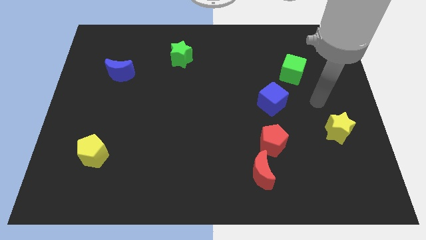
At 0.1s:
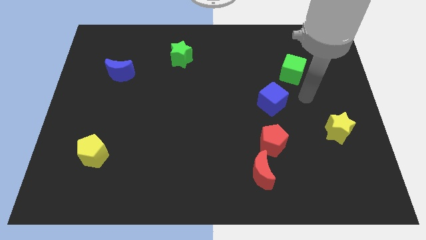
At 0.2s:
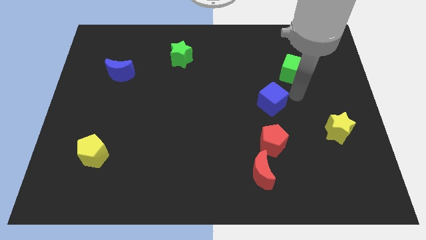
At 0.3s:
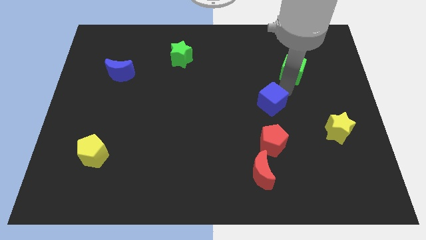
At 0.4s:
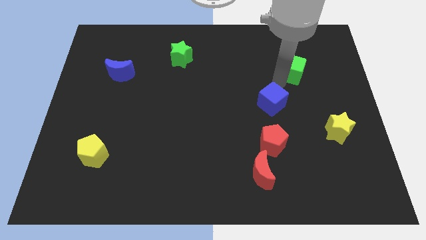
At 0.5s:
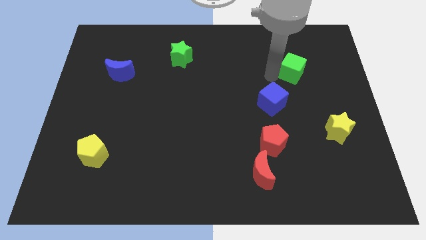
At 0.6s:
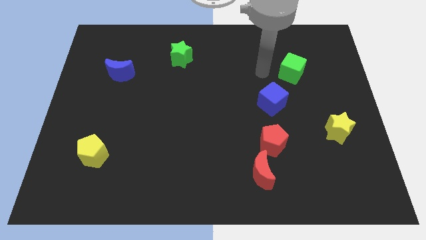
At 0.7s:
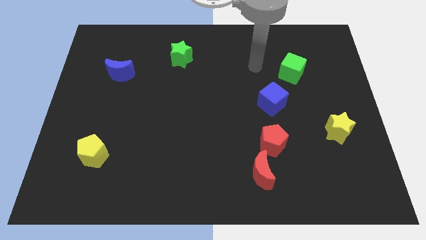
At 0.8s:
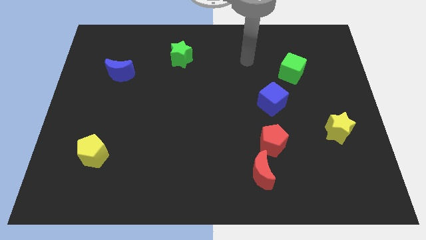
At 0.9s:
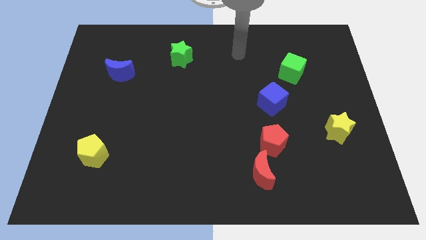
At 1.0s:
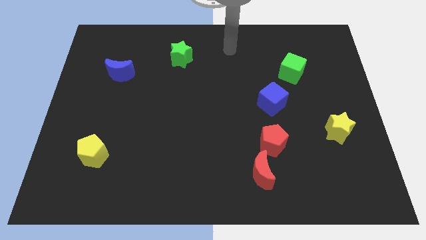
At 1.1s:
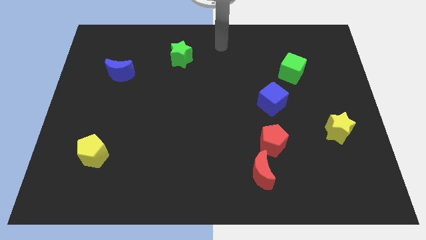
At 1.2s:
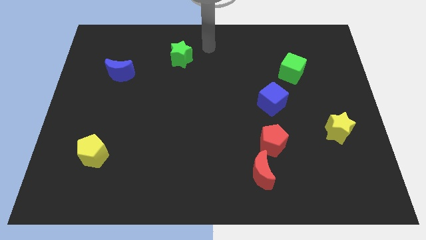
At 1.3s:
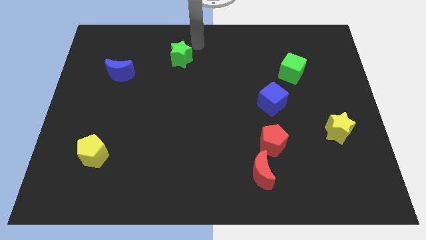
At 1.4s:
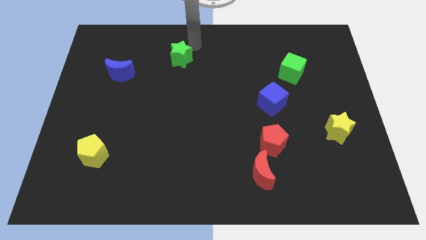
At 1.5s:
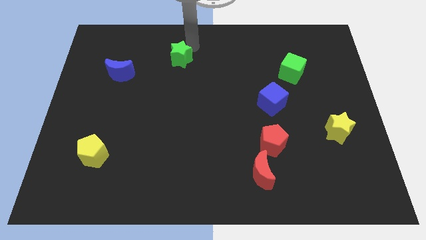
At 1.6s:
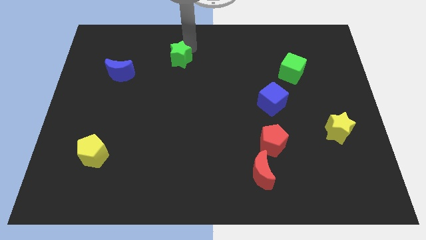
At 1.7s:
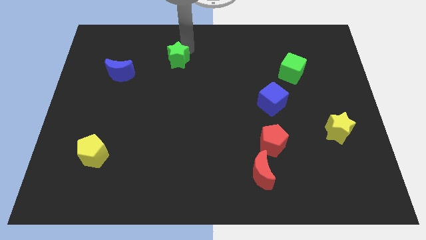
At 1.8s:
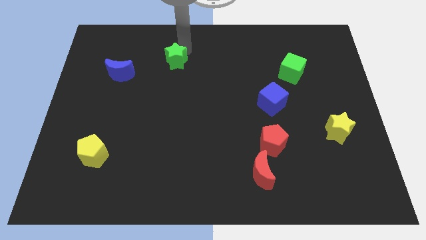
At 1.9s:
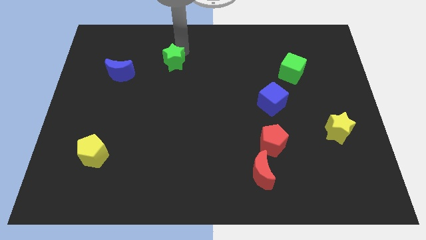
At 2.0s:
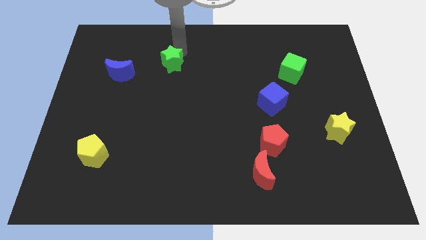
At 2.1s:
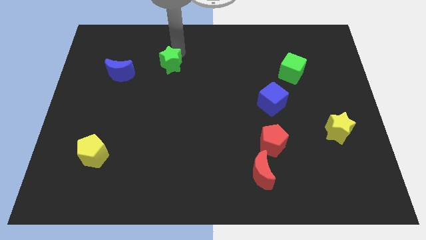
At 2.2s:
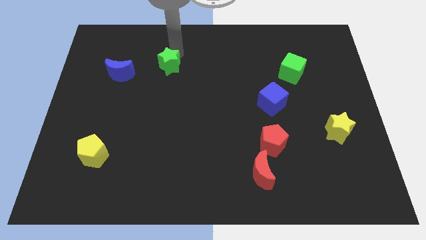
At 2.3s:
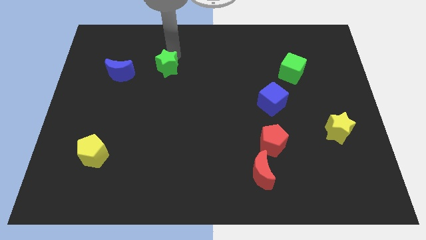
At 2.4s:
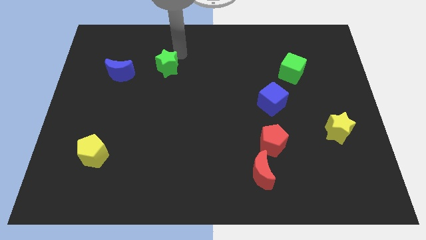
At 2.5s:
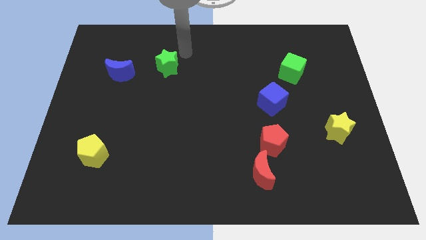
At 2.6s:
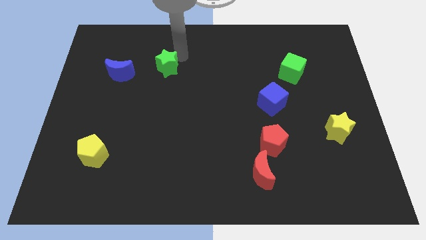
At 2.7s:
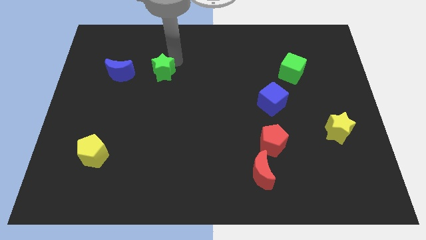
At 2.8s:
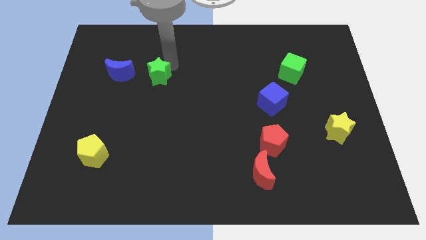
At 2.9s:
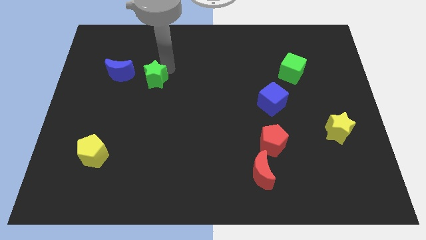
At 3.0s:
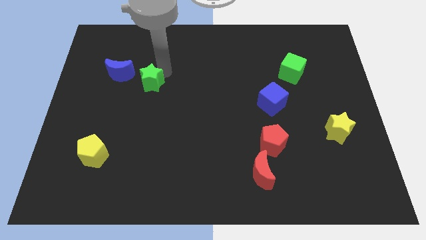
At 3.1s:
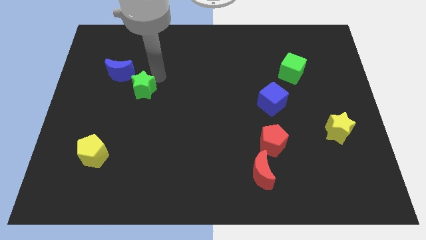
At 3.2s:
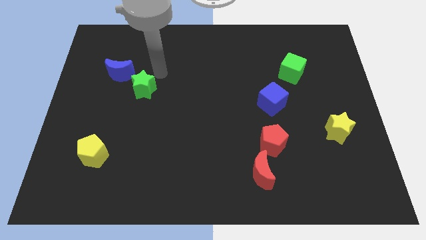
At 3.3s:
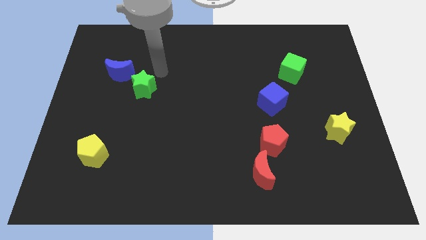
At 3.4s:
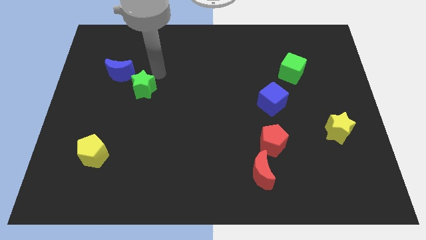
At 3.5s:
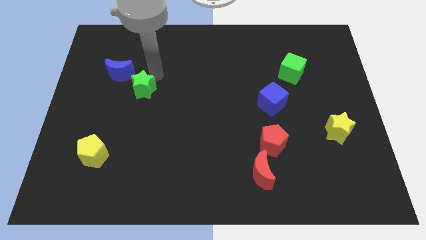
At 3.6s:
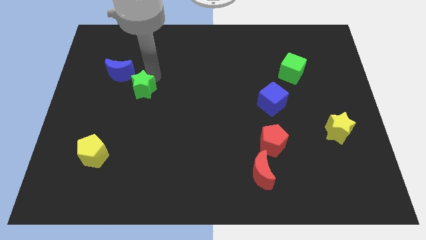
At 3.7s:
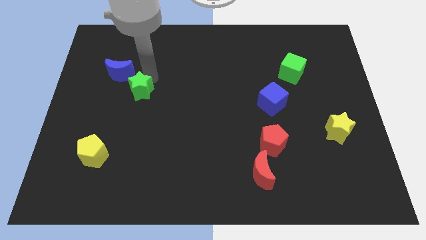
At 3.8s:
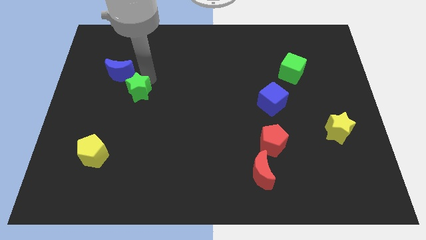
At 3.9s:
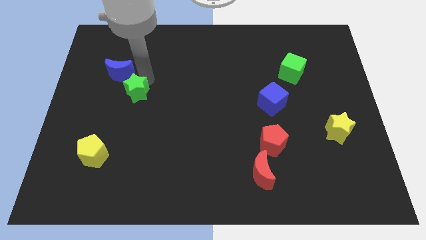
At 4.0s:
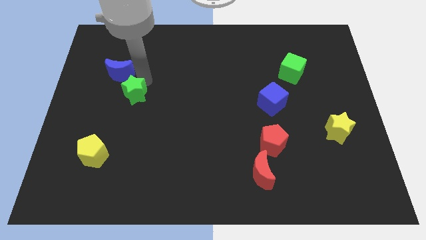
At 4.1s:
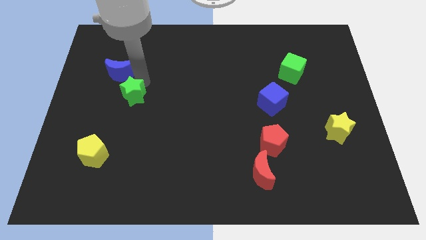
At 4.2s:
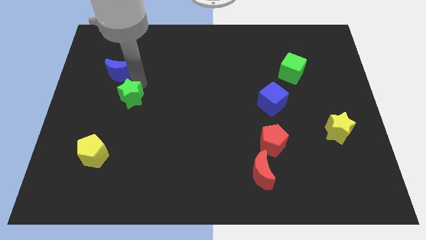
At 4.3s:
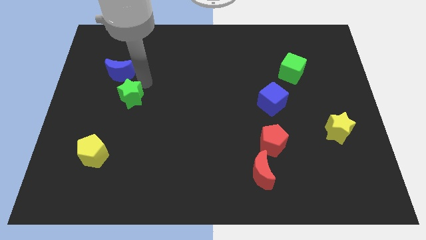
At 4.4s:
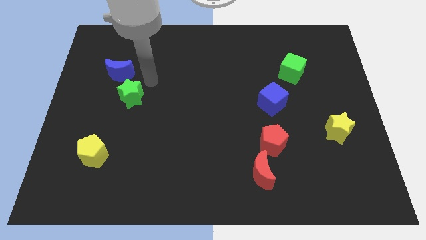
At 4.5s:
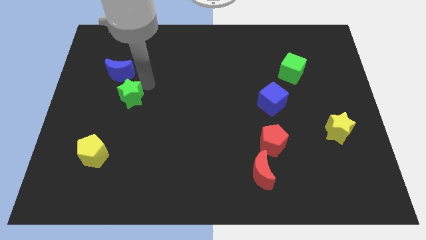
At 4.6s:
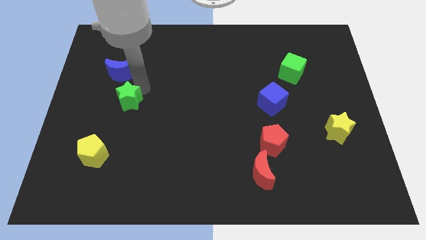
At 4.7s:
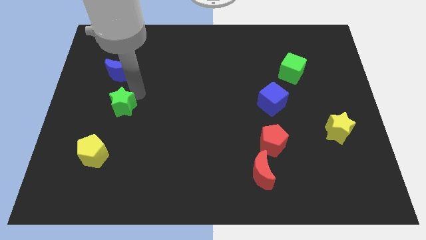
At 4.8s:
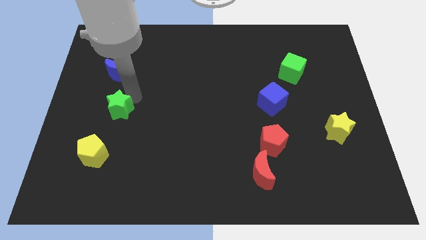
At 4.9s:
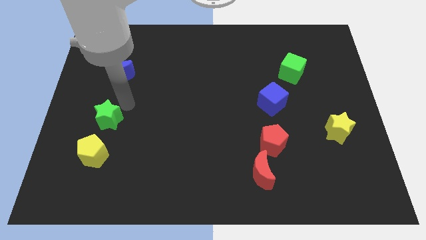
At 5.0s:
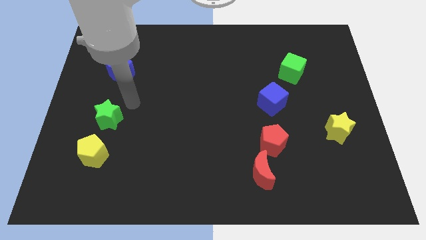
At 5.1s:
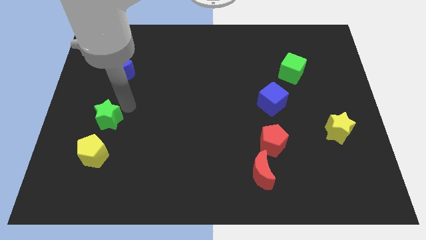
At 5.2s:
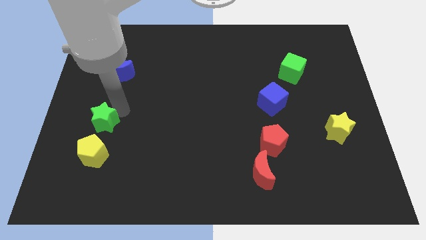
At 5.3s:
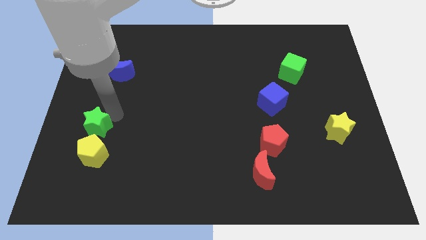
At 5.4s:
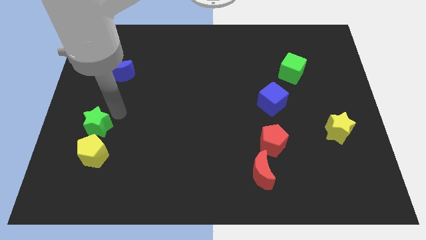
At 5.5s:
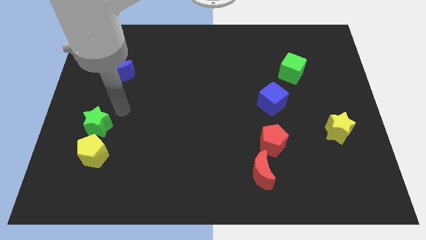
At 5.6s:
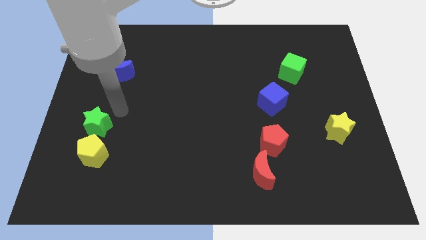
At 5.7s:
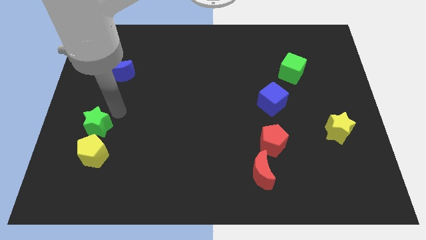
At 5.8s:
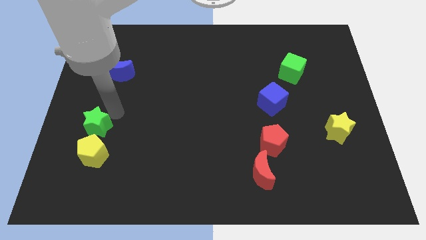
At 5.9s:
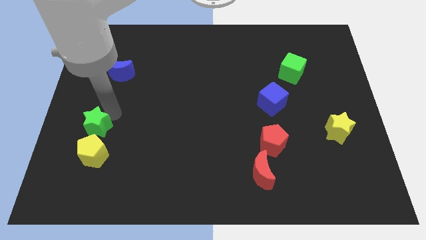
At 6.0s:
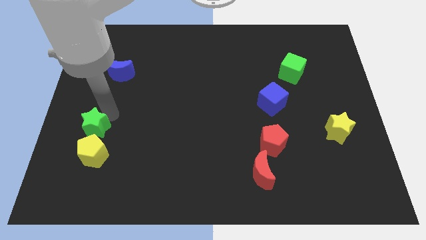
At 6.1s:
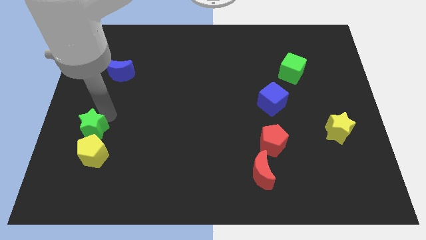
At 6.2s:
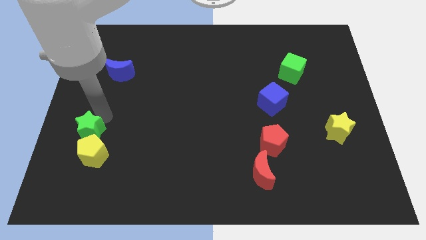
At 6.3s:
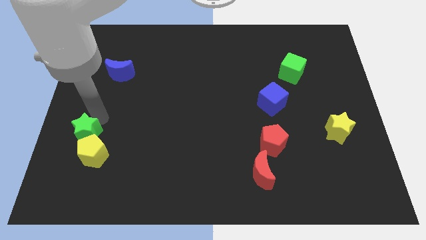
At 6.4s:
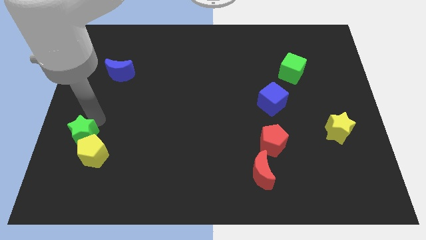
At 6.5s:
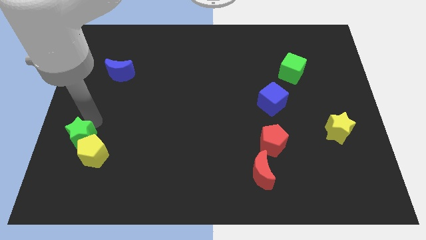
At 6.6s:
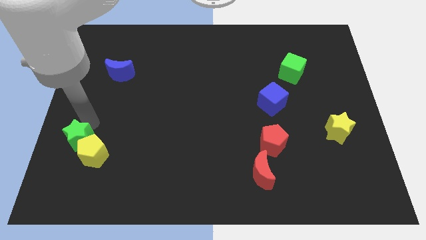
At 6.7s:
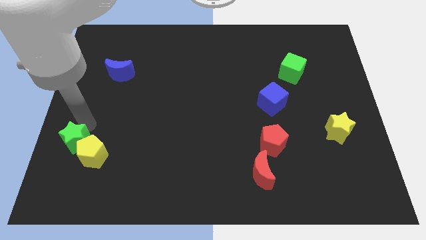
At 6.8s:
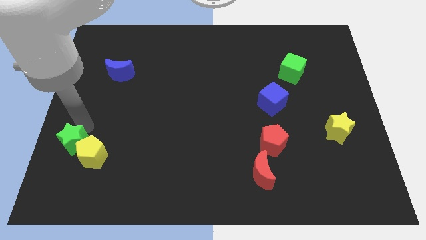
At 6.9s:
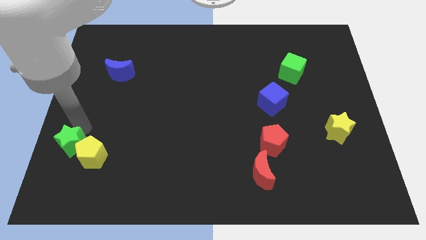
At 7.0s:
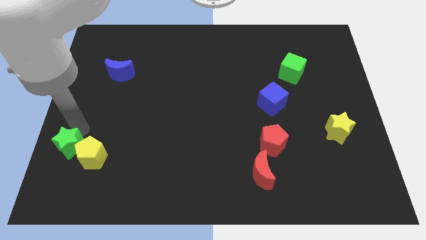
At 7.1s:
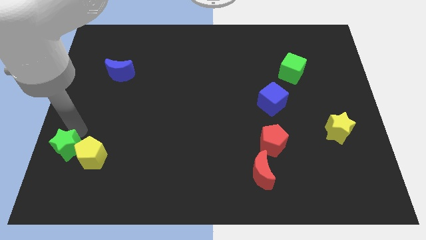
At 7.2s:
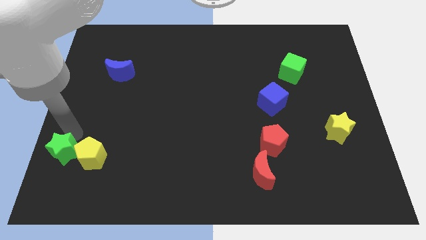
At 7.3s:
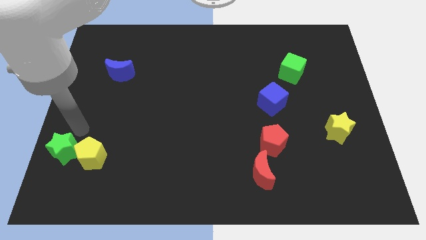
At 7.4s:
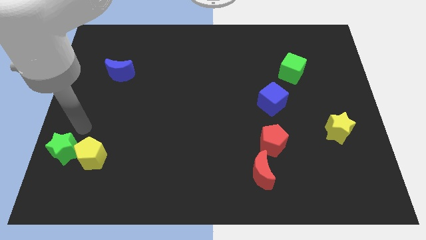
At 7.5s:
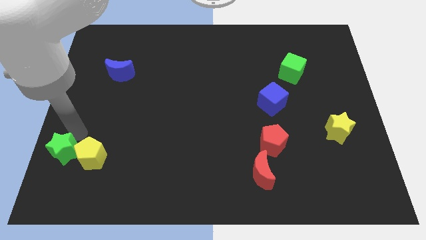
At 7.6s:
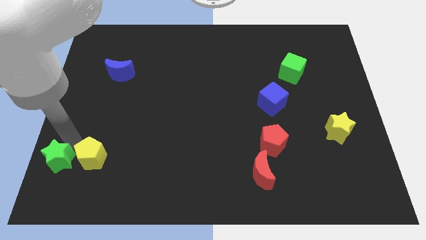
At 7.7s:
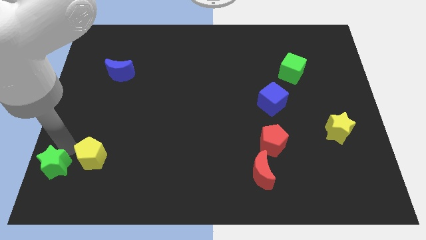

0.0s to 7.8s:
push the green star to the bottom left corner
